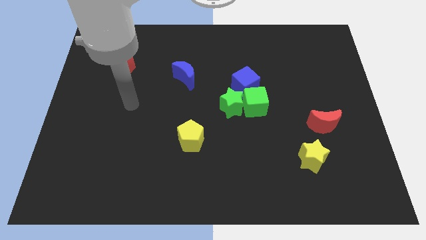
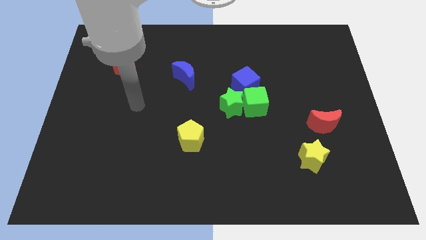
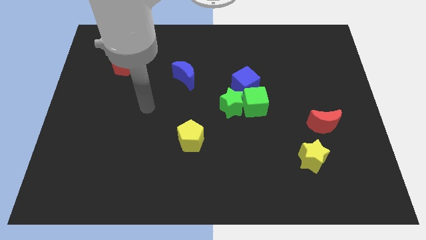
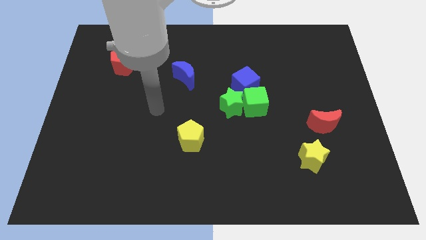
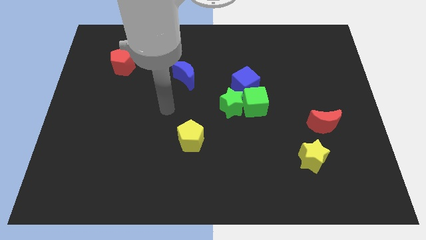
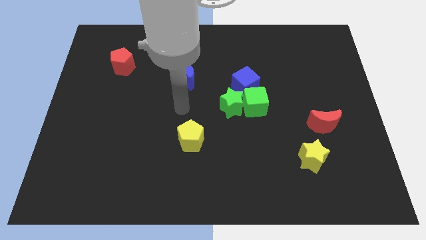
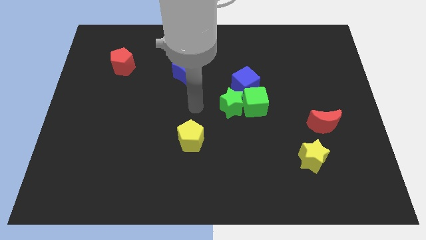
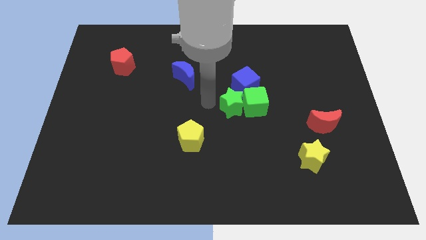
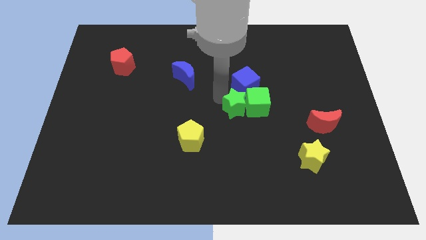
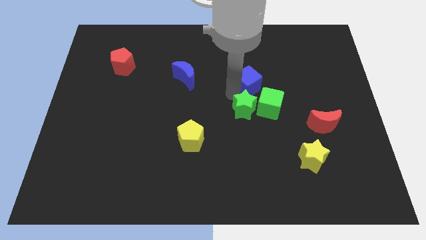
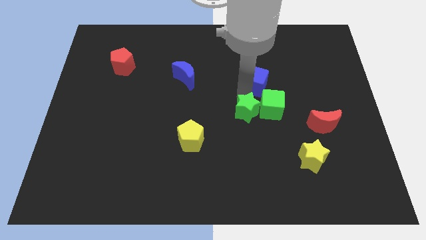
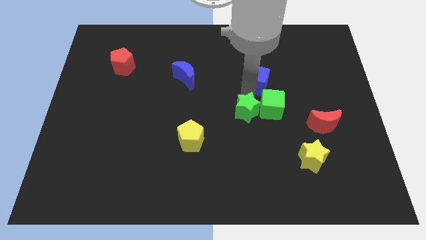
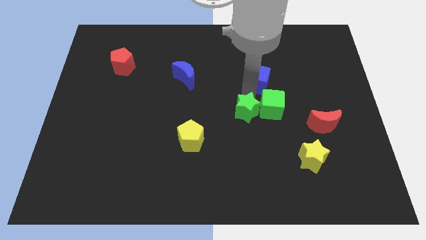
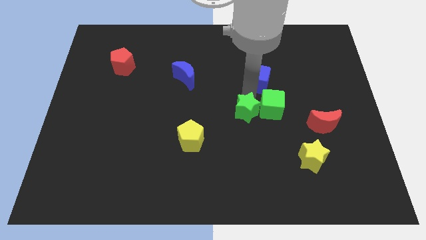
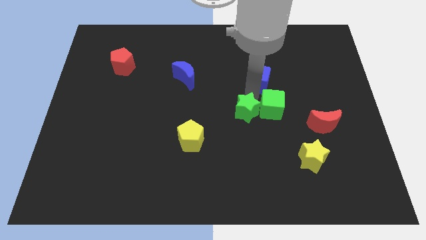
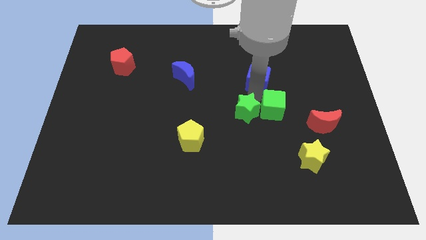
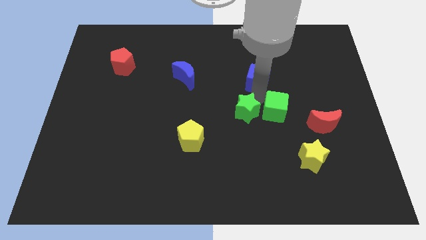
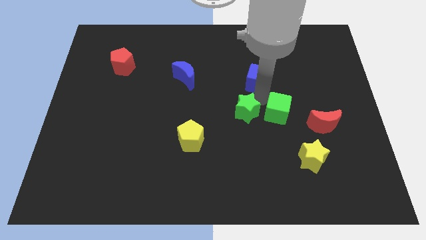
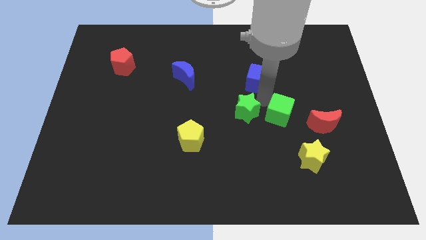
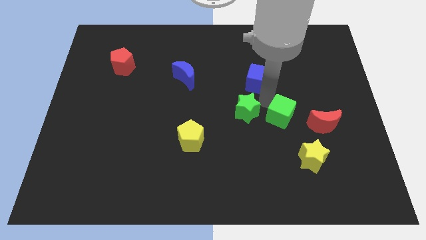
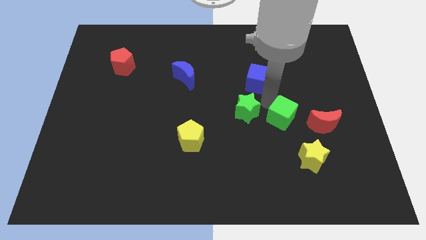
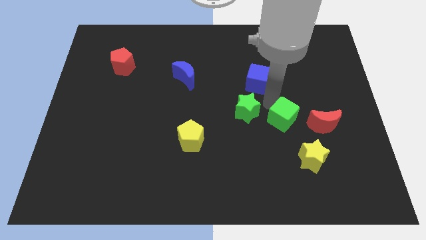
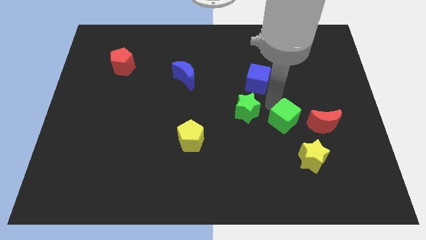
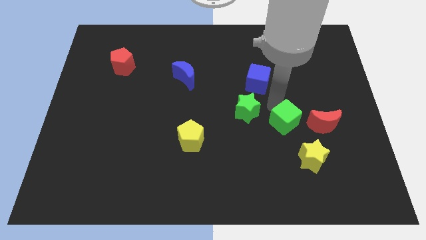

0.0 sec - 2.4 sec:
move the green cube away from the green star and blue cube

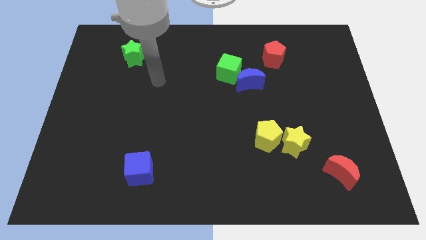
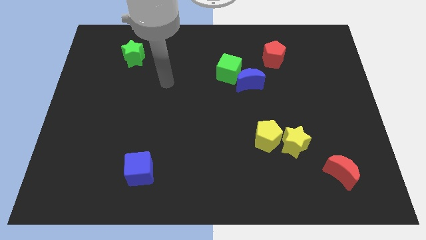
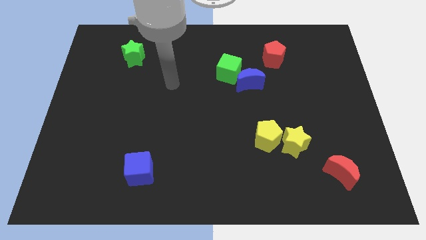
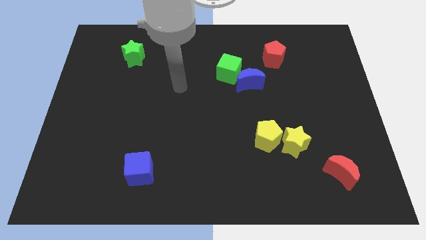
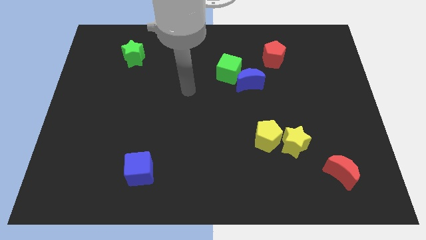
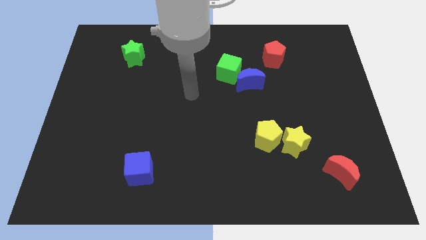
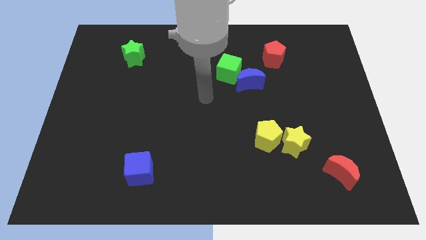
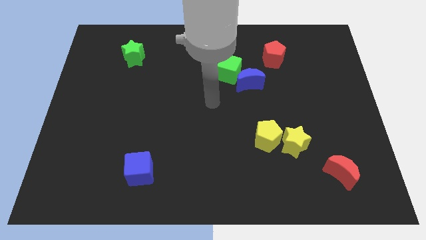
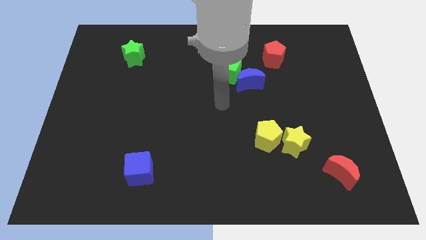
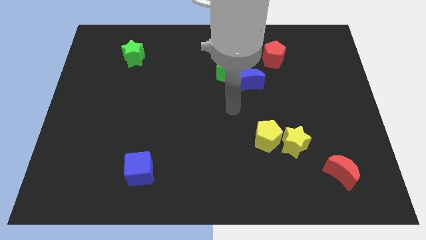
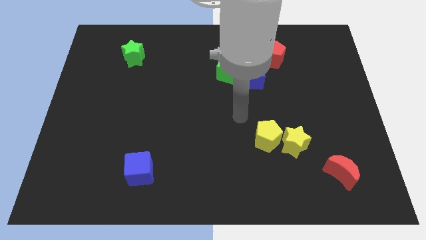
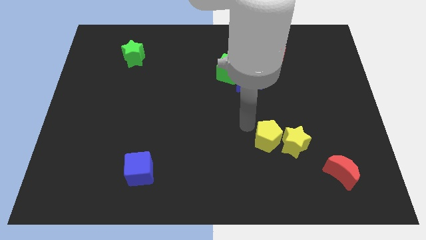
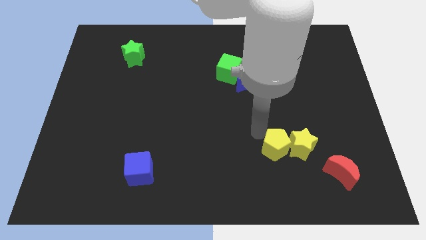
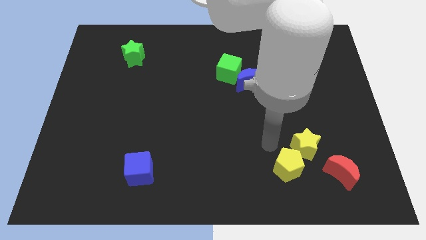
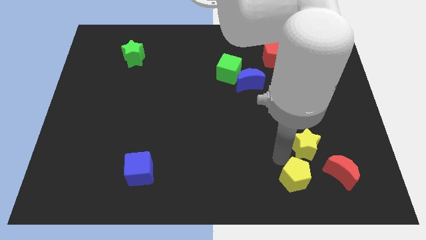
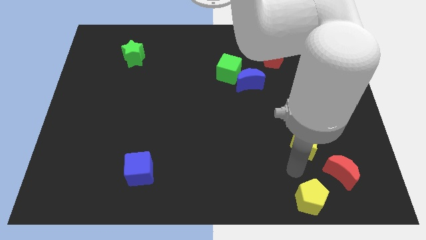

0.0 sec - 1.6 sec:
move the yellow star away from the yellow pentagon

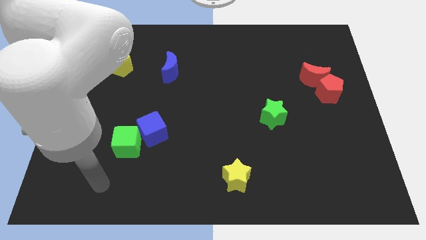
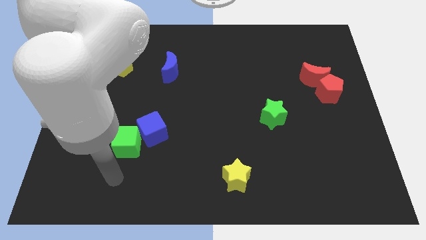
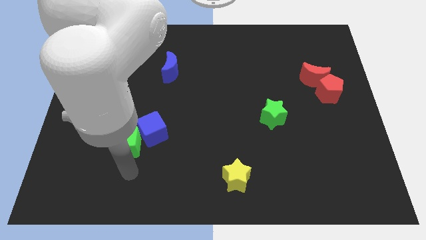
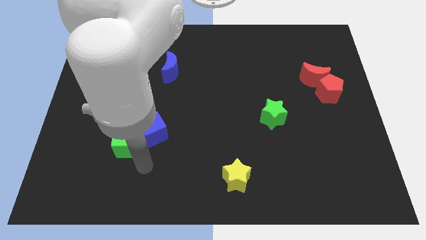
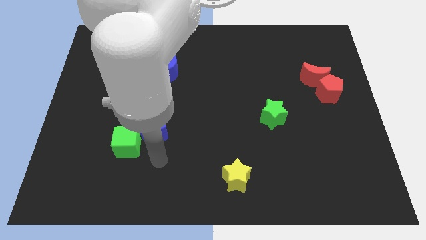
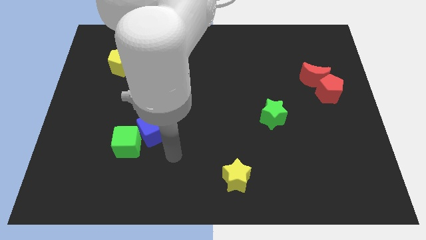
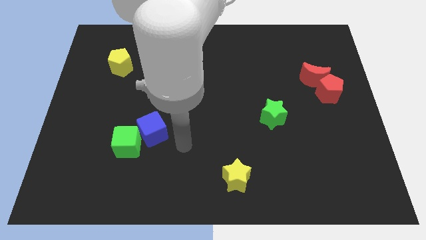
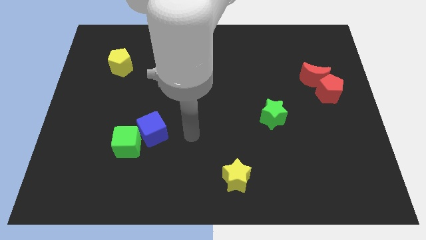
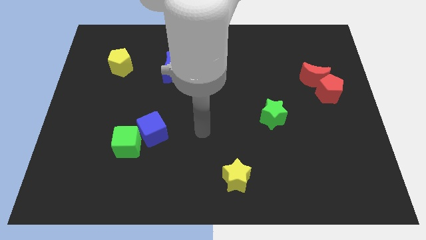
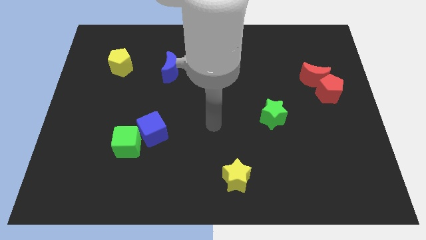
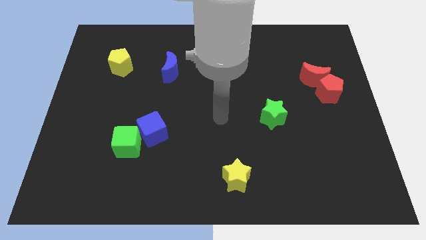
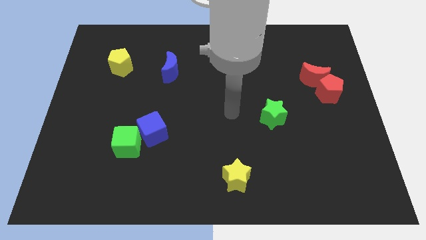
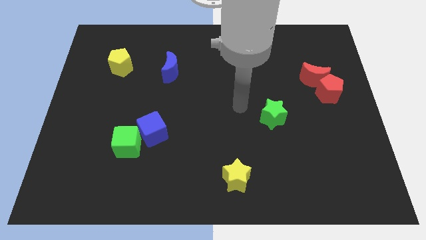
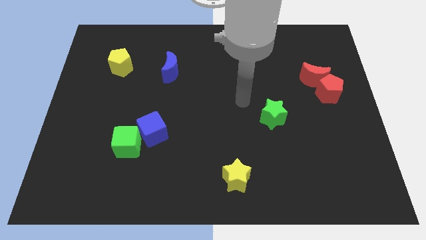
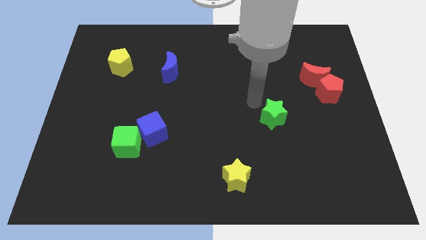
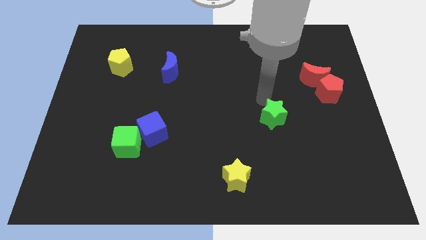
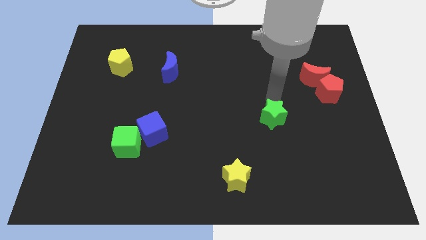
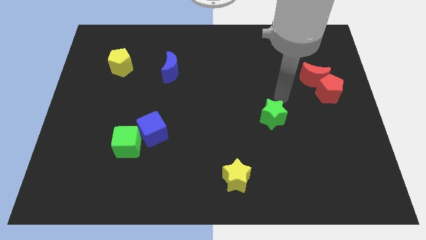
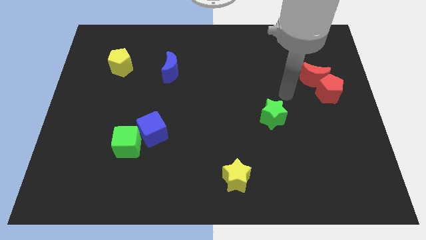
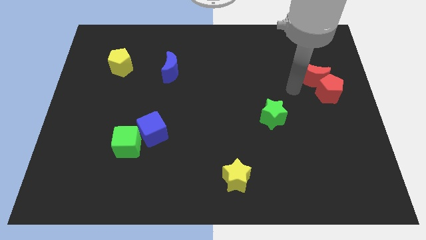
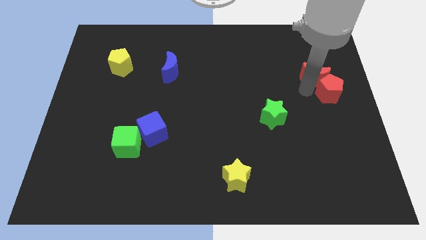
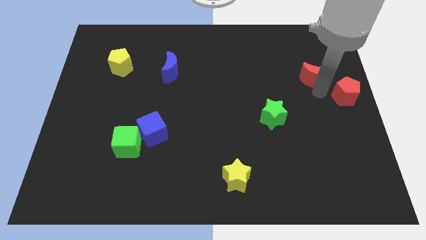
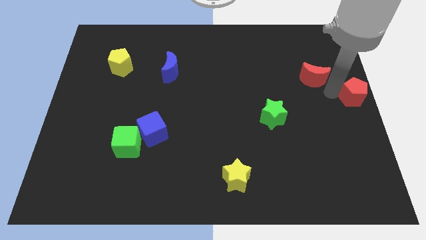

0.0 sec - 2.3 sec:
move the red moon away from the red pentagon

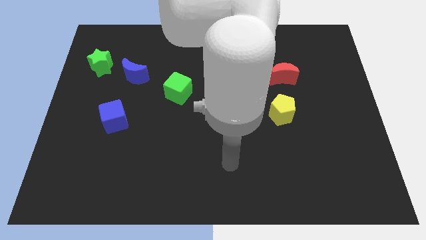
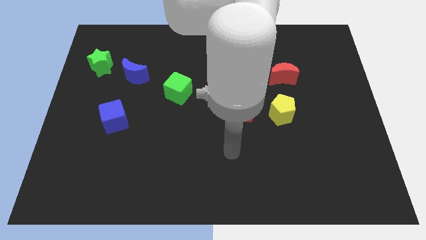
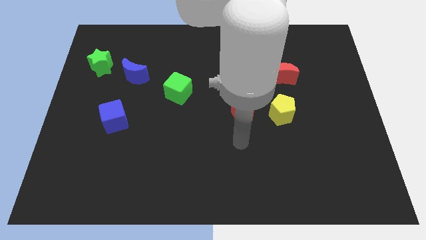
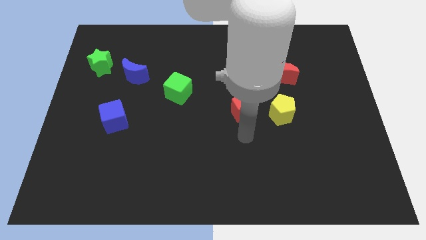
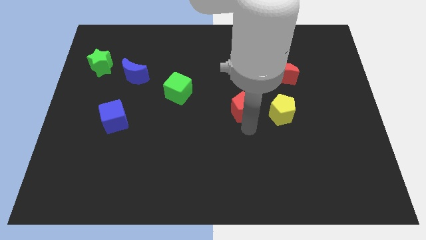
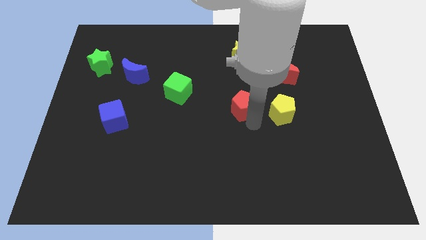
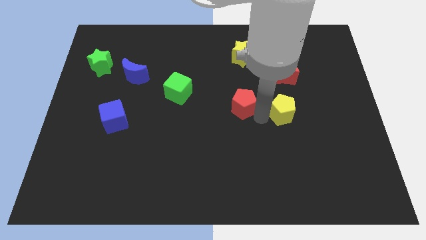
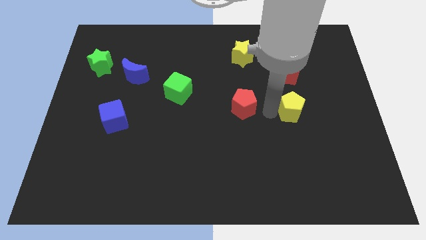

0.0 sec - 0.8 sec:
pull the red pentagon apart from the yellow pentagon

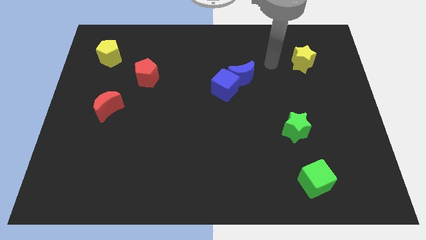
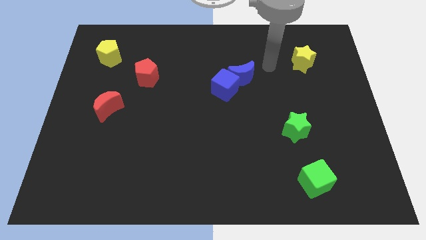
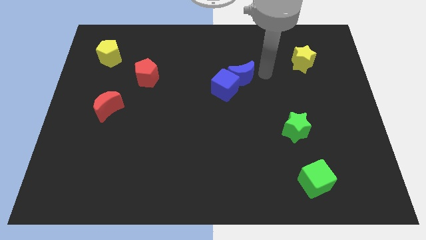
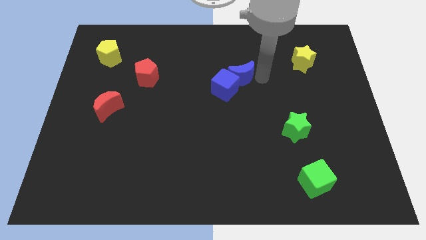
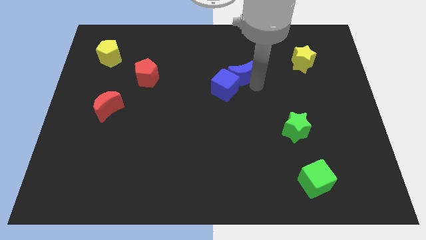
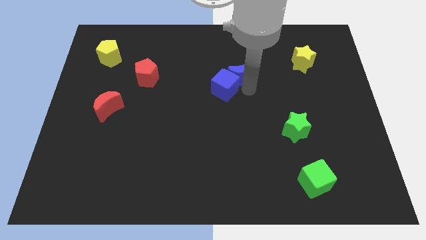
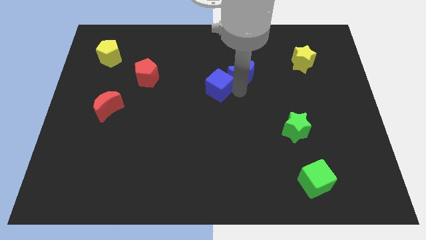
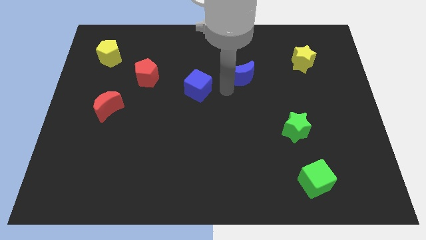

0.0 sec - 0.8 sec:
move the blue moon away from the blue cube

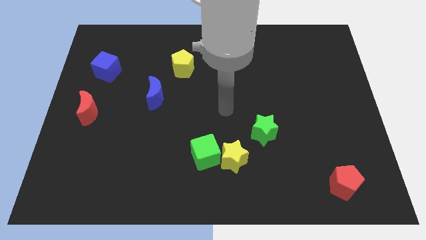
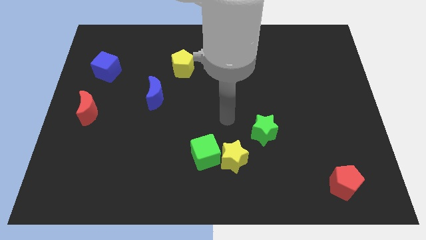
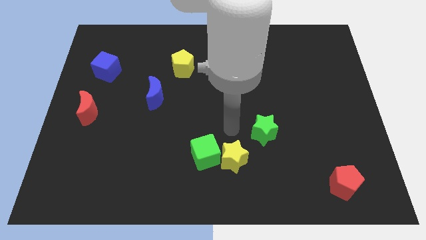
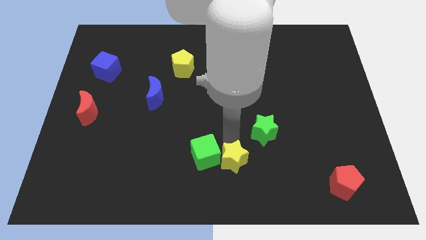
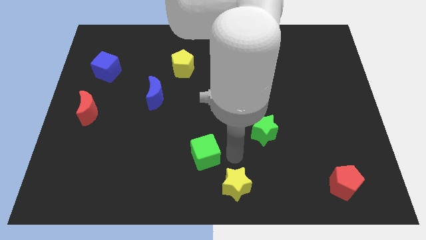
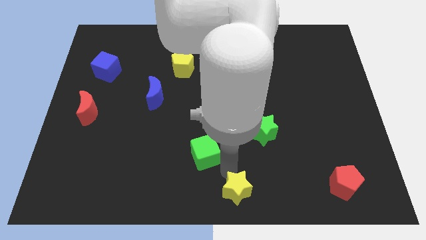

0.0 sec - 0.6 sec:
pull the green cube apart from the yellow star

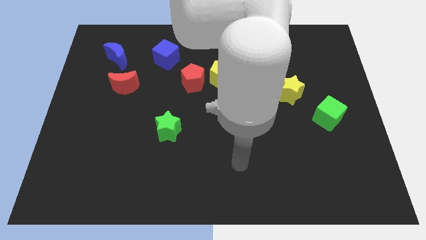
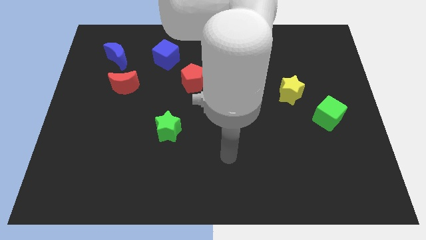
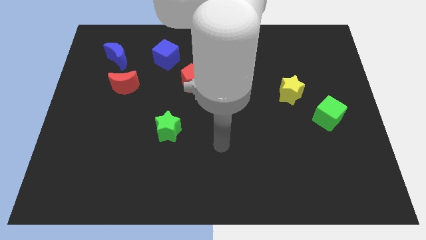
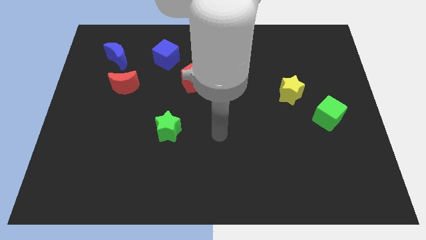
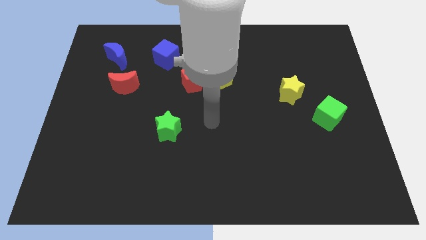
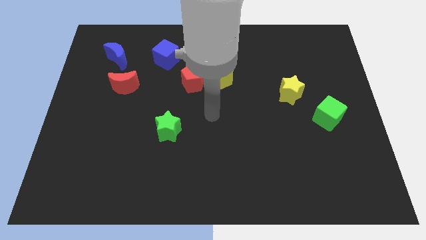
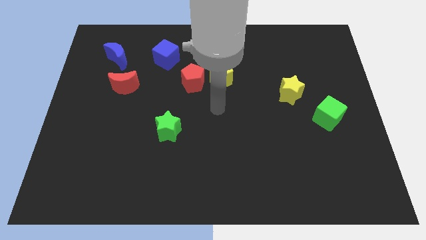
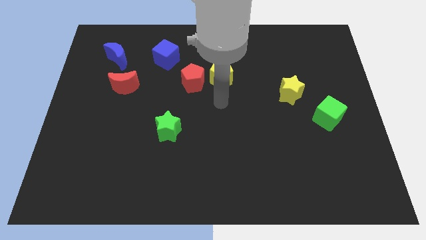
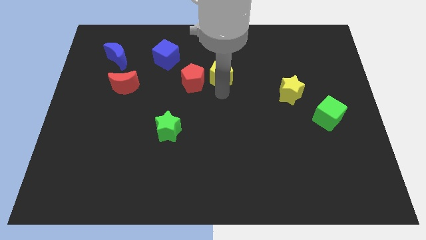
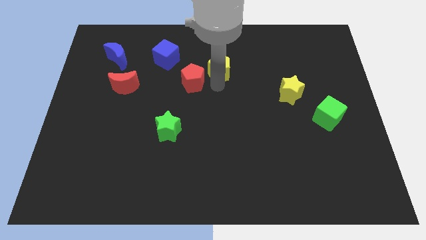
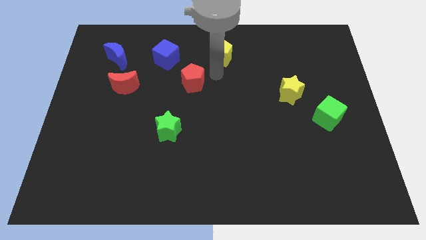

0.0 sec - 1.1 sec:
move the red pentagon away from the yellow pentagon
